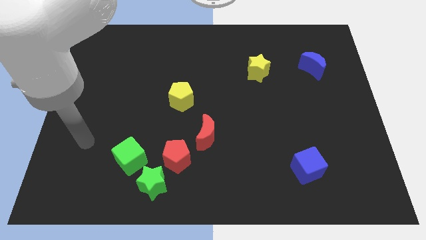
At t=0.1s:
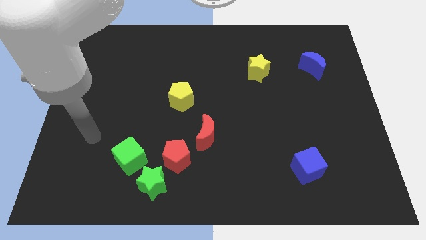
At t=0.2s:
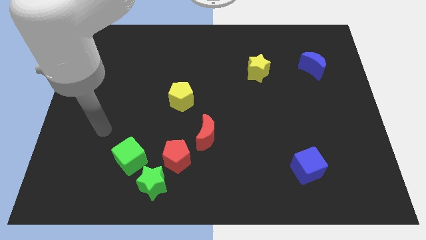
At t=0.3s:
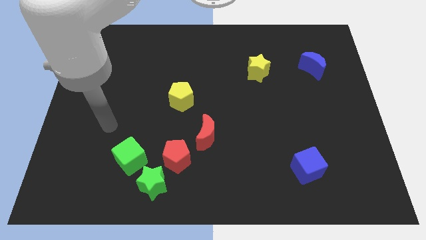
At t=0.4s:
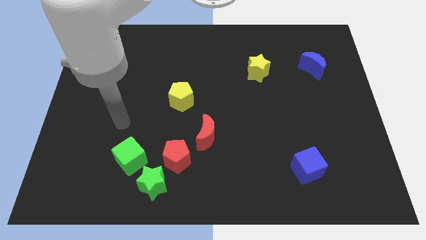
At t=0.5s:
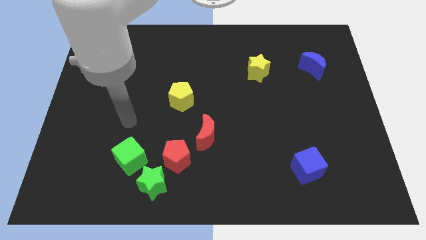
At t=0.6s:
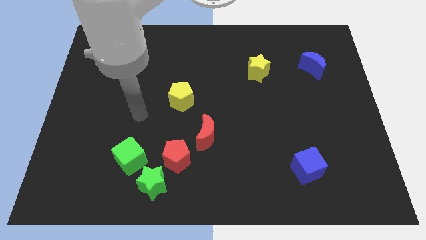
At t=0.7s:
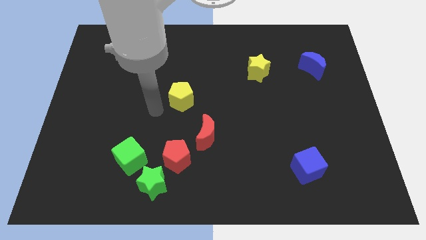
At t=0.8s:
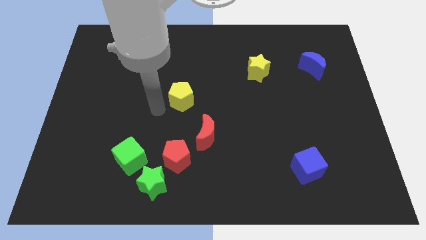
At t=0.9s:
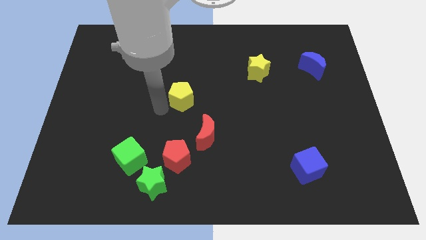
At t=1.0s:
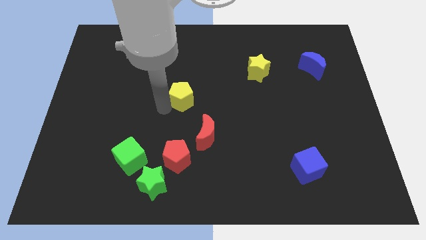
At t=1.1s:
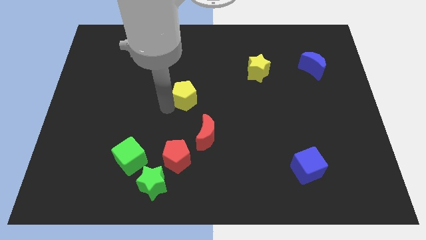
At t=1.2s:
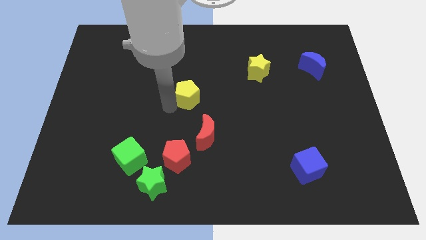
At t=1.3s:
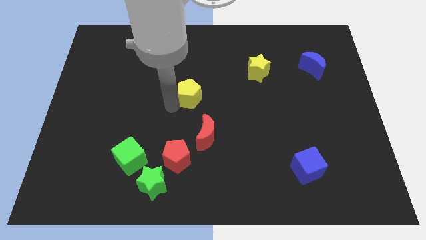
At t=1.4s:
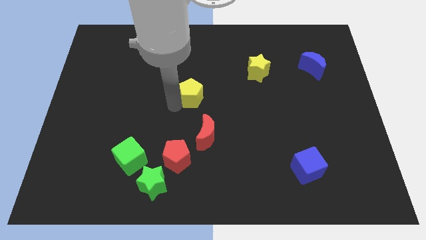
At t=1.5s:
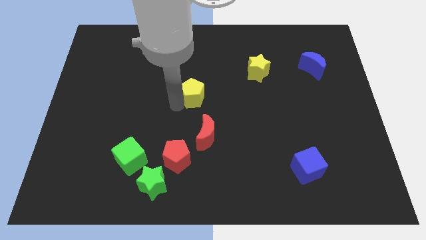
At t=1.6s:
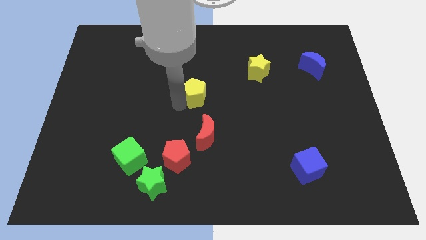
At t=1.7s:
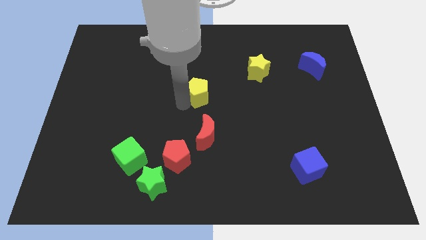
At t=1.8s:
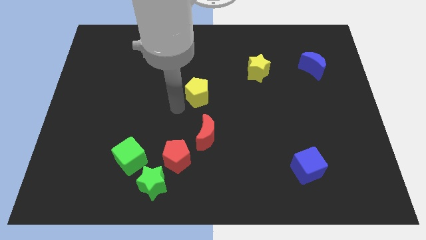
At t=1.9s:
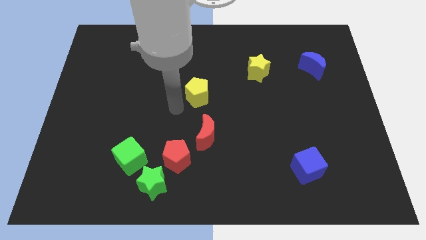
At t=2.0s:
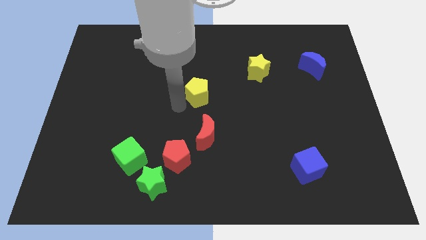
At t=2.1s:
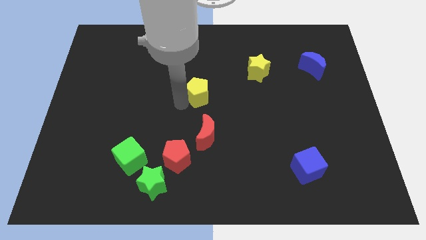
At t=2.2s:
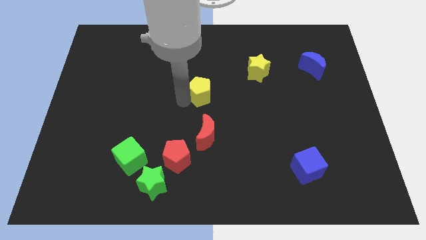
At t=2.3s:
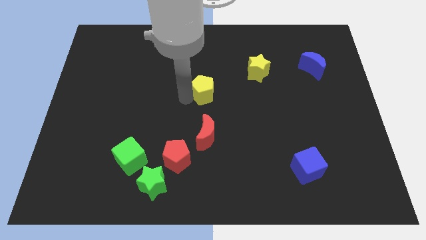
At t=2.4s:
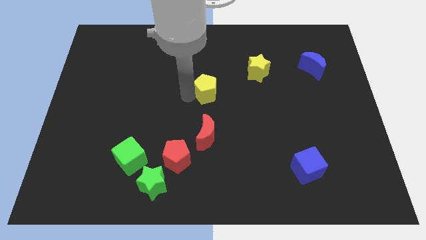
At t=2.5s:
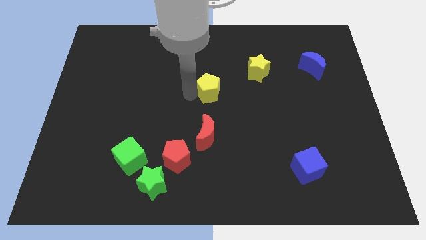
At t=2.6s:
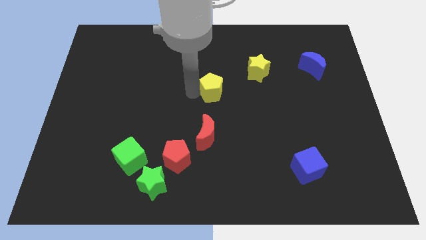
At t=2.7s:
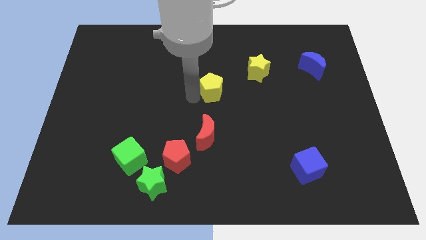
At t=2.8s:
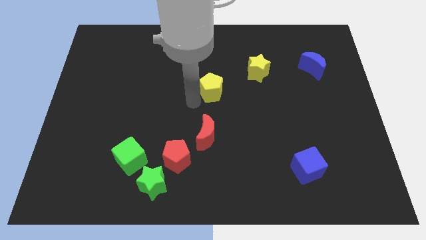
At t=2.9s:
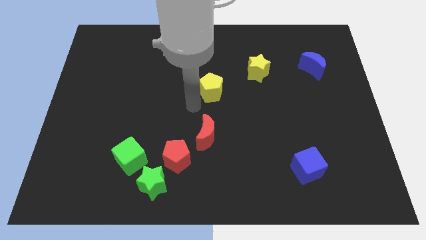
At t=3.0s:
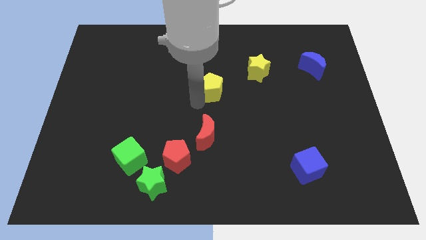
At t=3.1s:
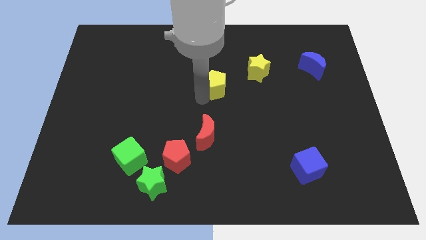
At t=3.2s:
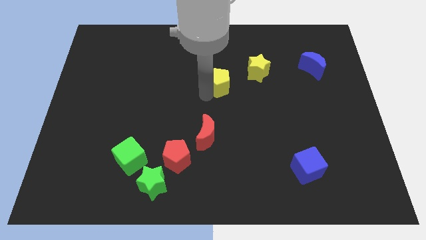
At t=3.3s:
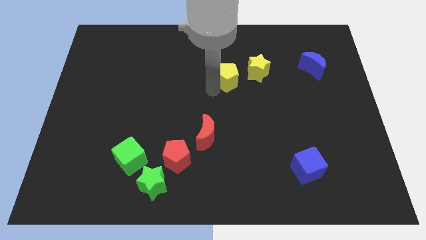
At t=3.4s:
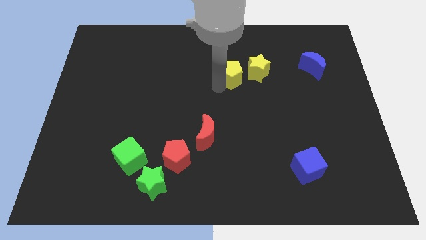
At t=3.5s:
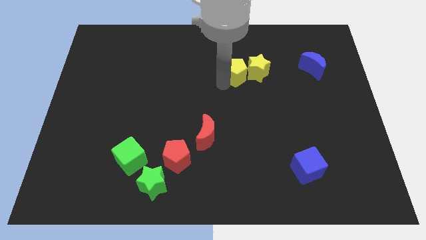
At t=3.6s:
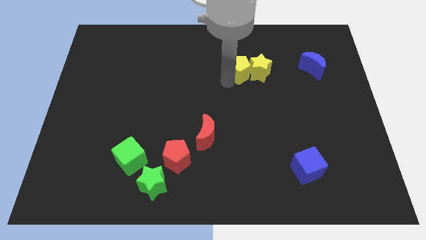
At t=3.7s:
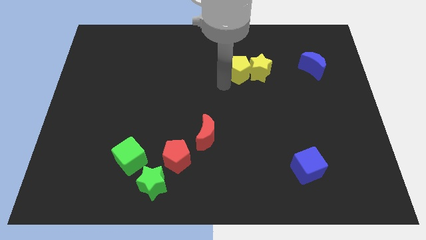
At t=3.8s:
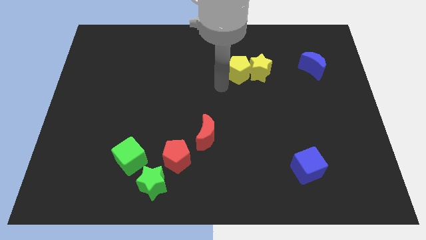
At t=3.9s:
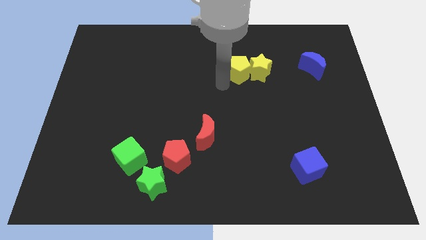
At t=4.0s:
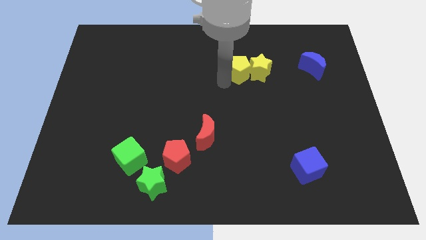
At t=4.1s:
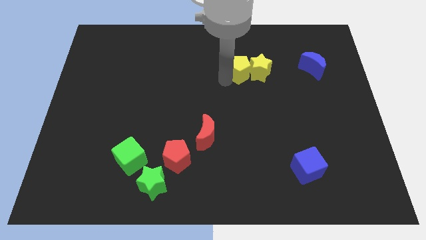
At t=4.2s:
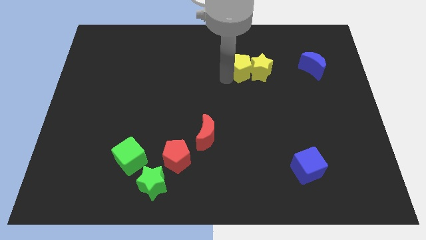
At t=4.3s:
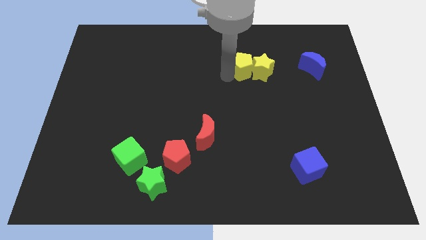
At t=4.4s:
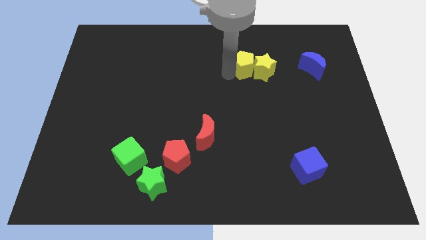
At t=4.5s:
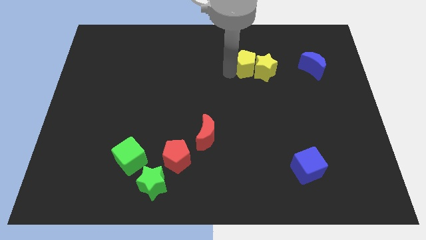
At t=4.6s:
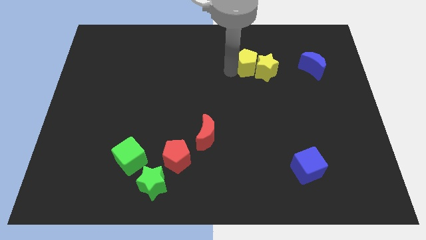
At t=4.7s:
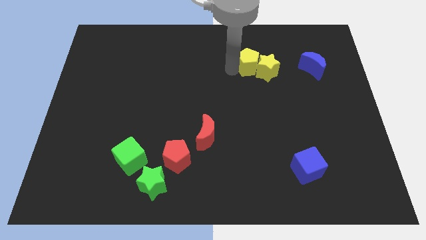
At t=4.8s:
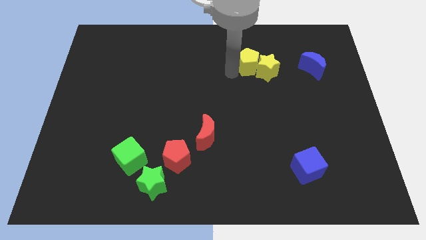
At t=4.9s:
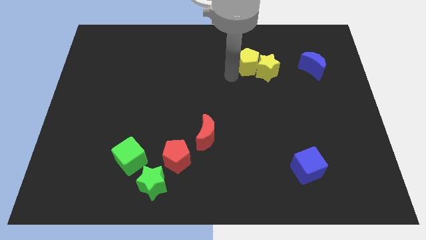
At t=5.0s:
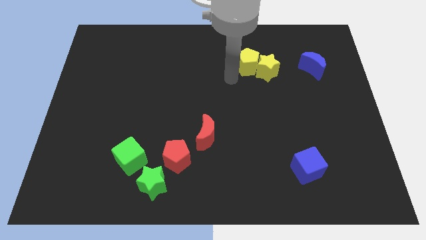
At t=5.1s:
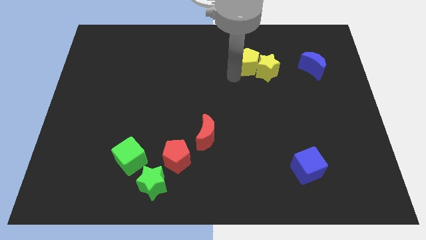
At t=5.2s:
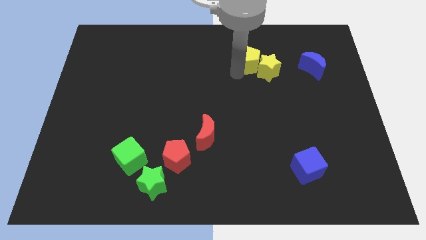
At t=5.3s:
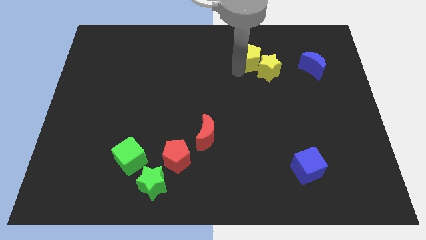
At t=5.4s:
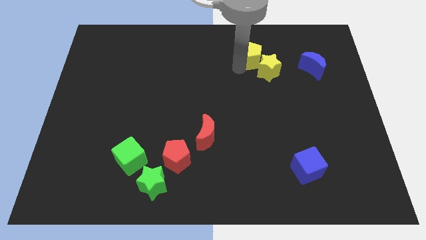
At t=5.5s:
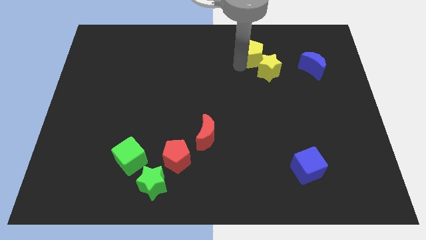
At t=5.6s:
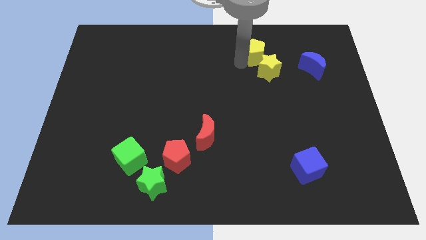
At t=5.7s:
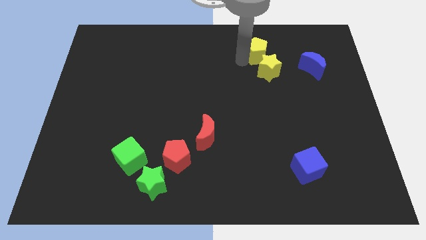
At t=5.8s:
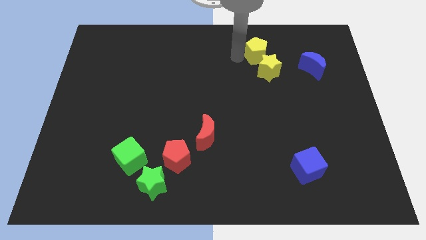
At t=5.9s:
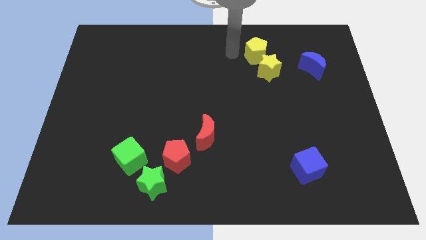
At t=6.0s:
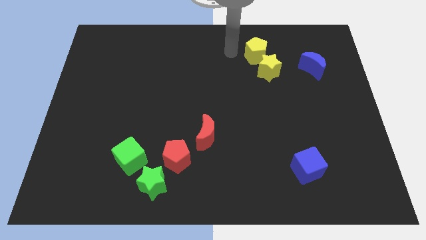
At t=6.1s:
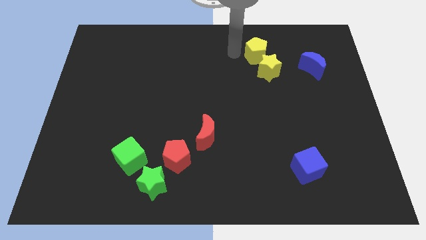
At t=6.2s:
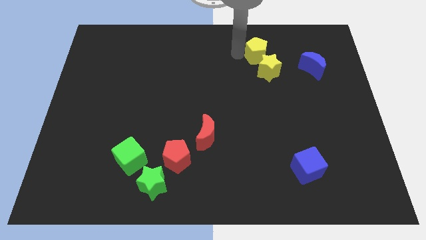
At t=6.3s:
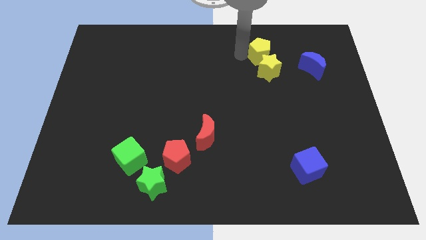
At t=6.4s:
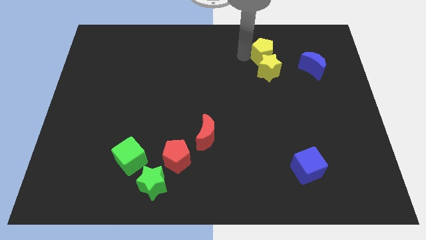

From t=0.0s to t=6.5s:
move the yellow pentagon to the top right side of the yellow star

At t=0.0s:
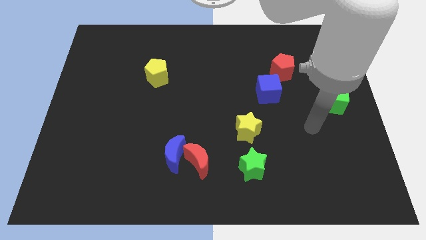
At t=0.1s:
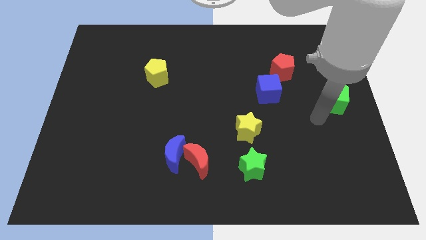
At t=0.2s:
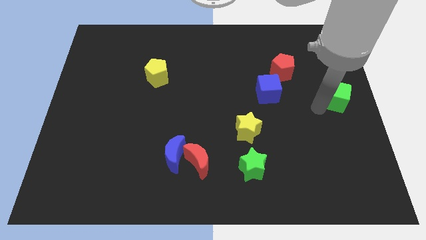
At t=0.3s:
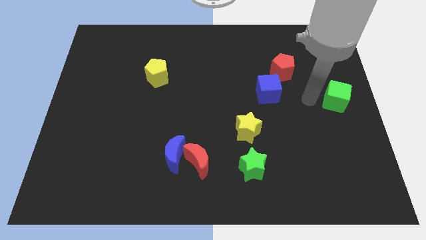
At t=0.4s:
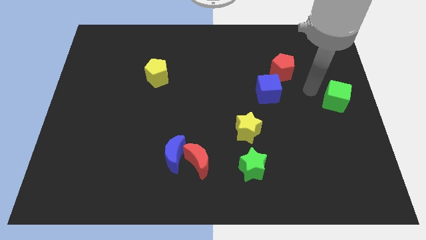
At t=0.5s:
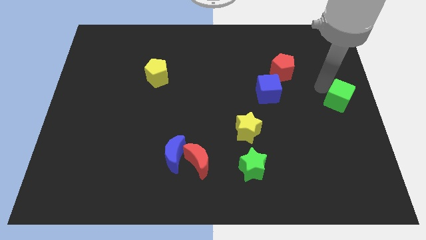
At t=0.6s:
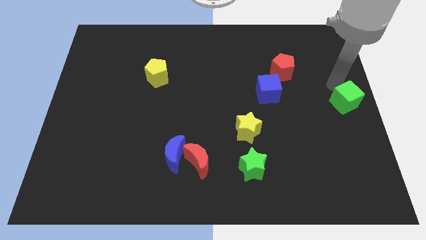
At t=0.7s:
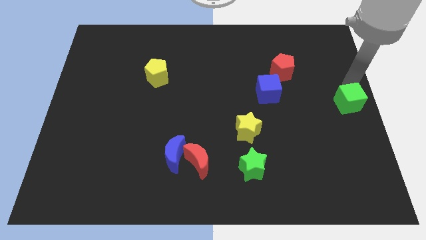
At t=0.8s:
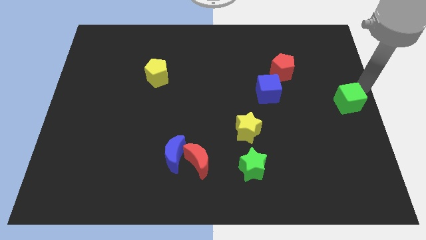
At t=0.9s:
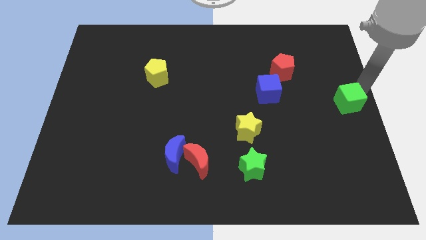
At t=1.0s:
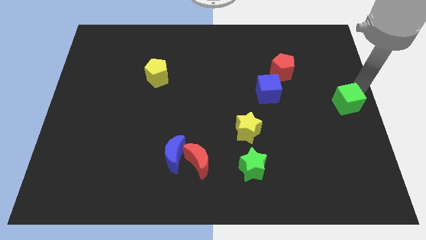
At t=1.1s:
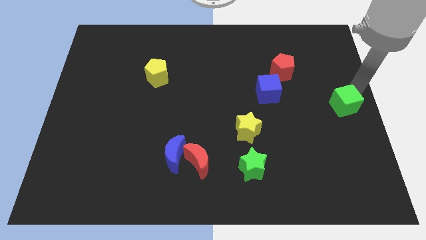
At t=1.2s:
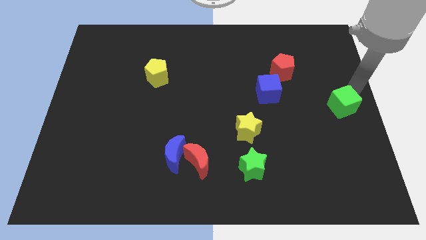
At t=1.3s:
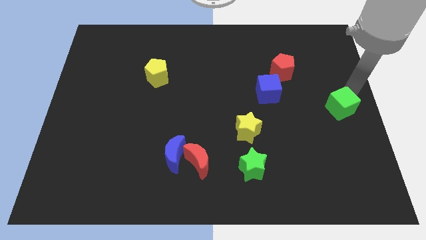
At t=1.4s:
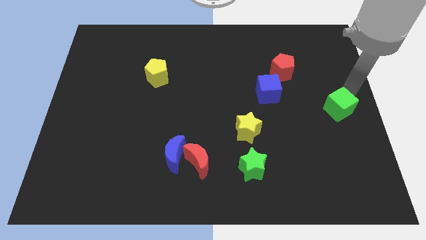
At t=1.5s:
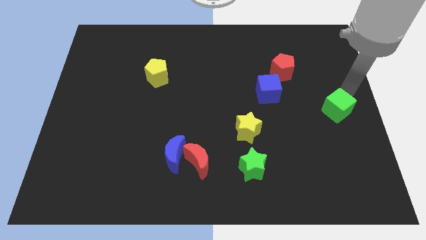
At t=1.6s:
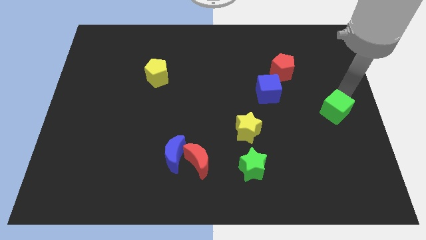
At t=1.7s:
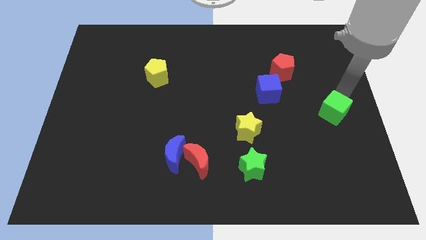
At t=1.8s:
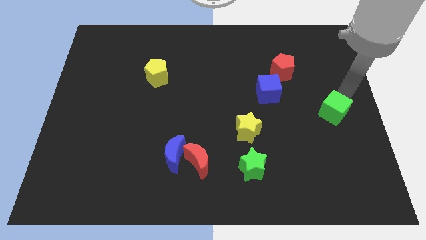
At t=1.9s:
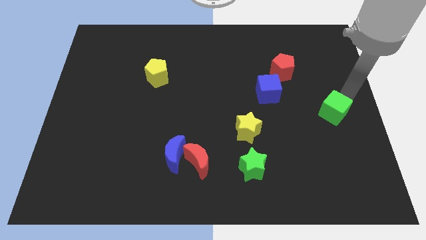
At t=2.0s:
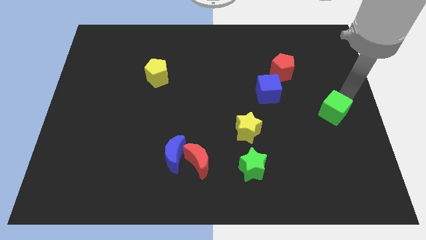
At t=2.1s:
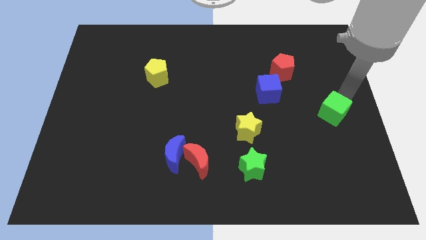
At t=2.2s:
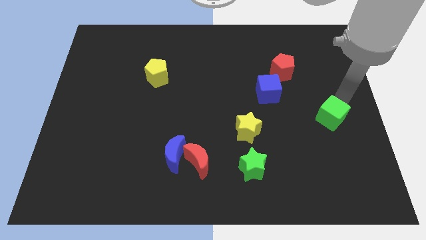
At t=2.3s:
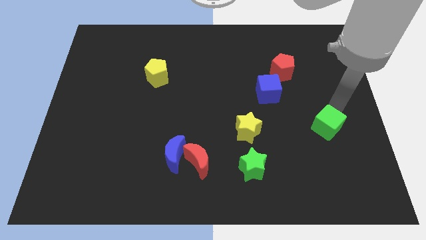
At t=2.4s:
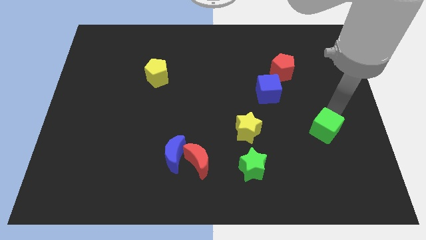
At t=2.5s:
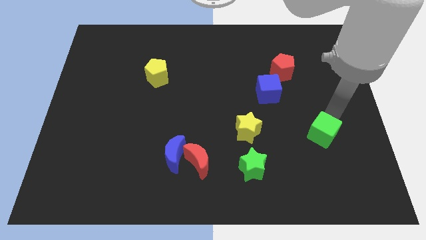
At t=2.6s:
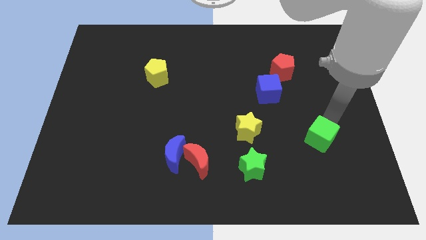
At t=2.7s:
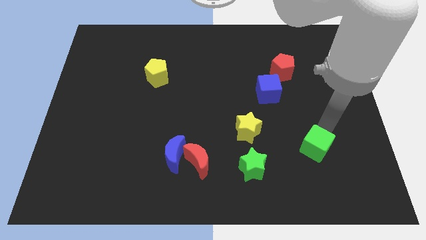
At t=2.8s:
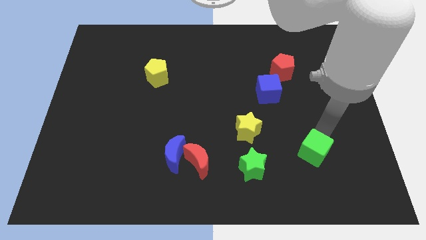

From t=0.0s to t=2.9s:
push the green cube to the right of the green star
